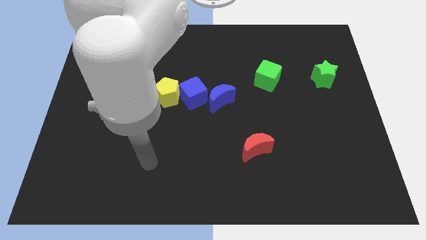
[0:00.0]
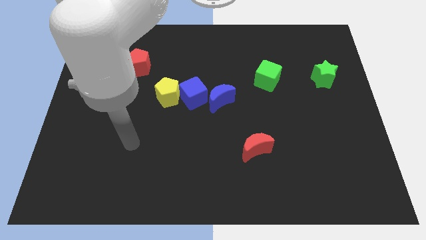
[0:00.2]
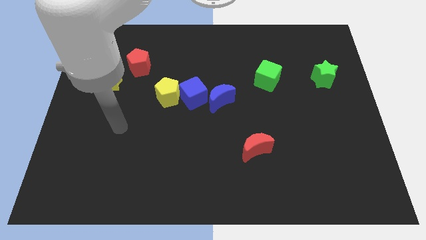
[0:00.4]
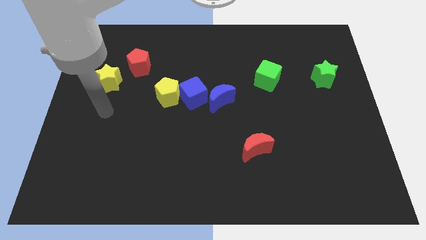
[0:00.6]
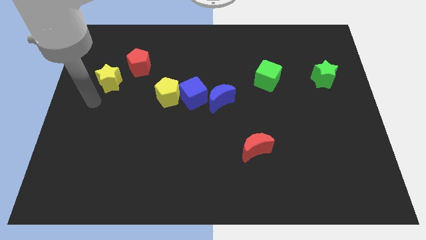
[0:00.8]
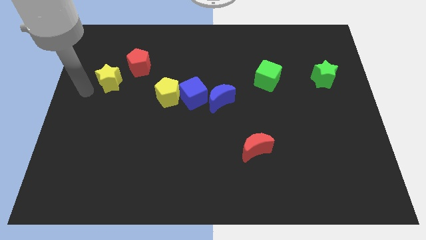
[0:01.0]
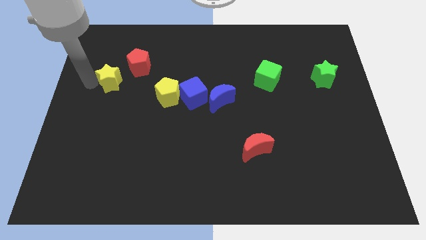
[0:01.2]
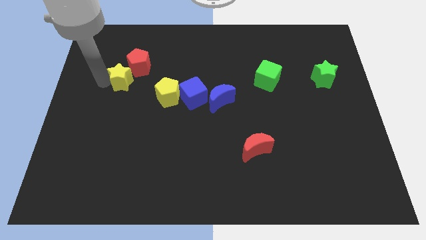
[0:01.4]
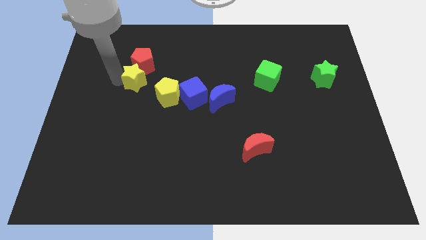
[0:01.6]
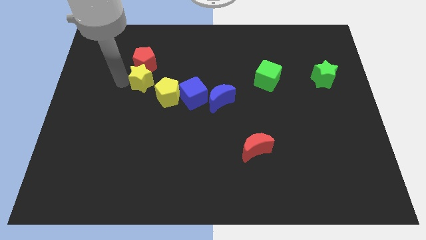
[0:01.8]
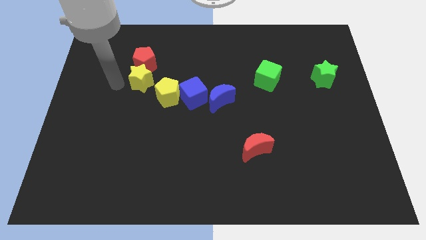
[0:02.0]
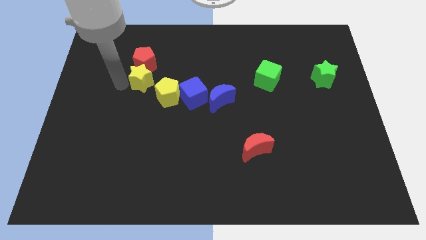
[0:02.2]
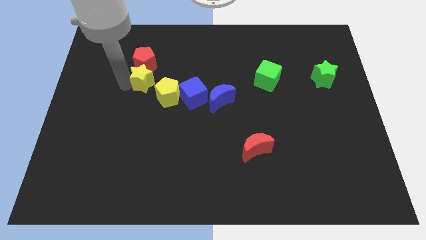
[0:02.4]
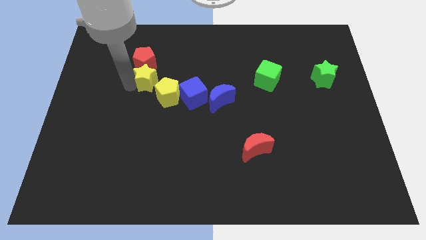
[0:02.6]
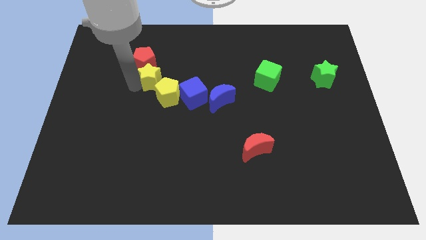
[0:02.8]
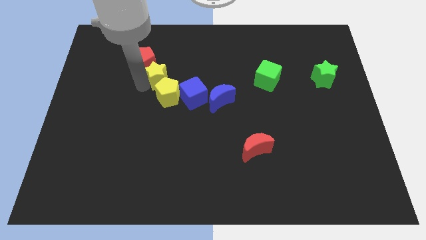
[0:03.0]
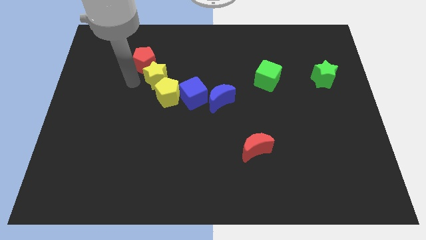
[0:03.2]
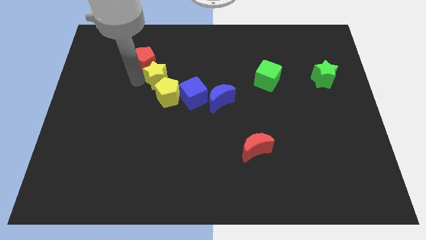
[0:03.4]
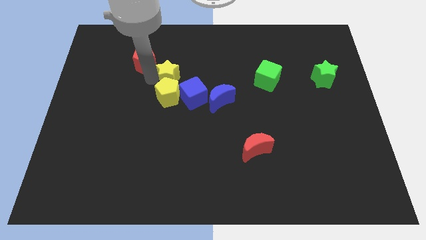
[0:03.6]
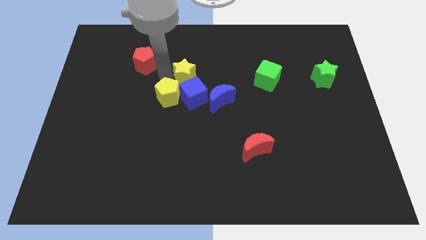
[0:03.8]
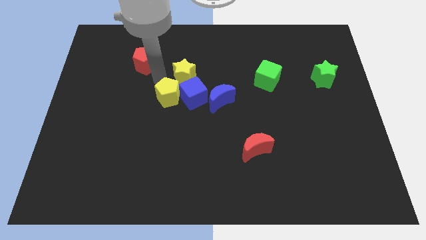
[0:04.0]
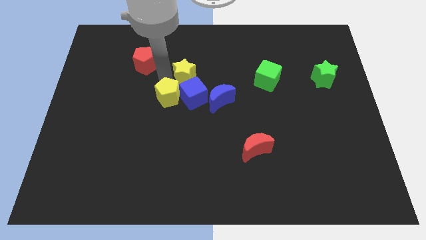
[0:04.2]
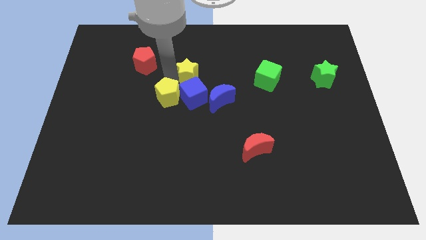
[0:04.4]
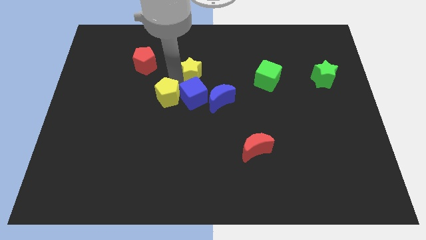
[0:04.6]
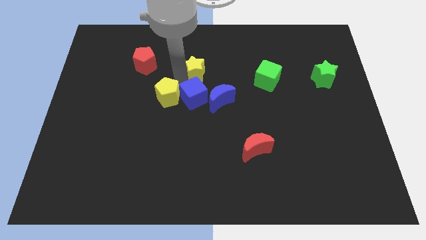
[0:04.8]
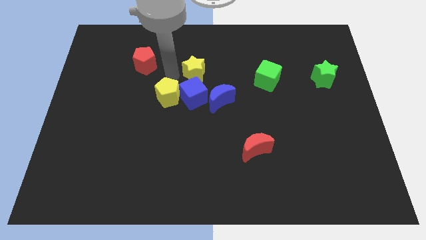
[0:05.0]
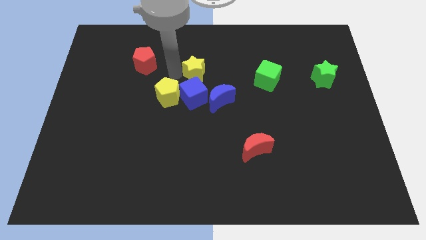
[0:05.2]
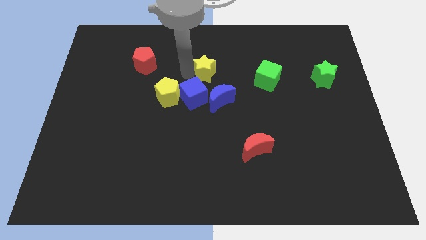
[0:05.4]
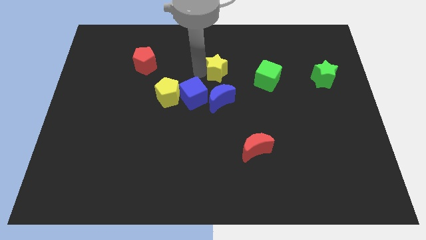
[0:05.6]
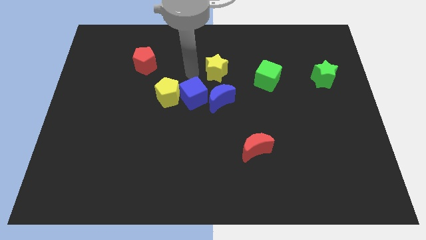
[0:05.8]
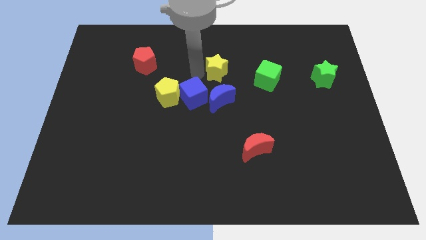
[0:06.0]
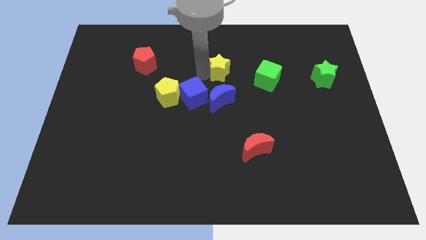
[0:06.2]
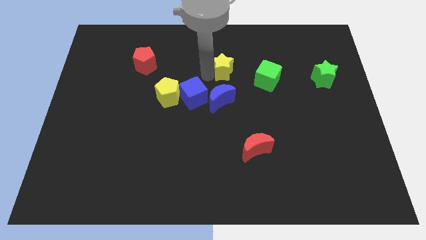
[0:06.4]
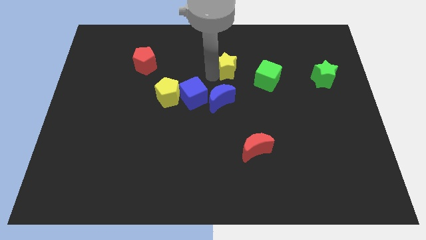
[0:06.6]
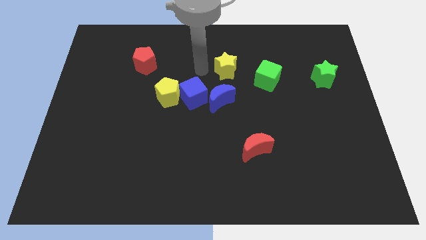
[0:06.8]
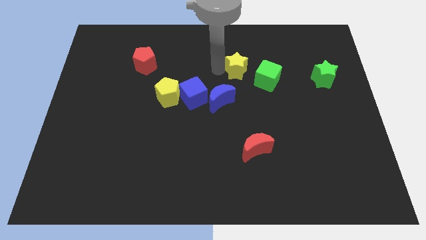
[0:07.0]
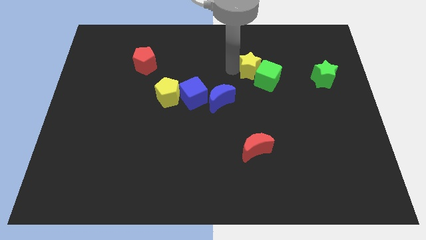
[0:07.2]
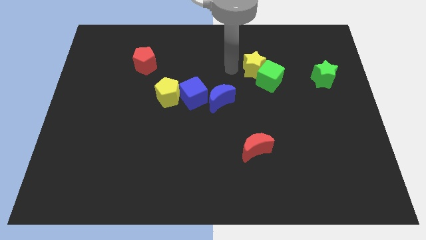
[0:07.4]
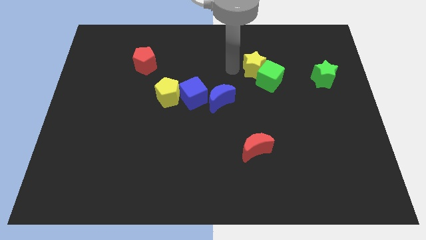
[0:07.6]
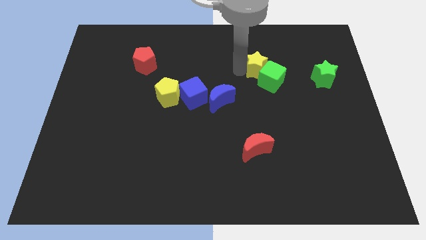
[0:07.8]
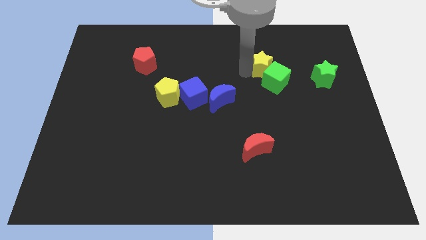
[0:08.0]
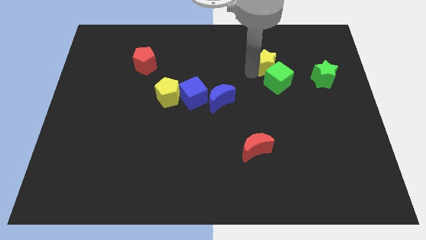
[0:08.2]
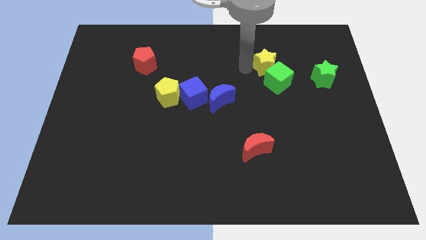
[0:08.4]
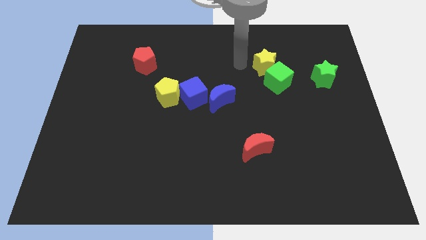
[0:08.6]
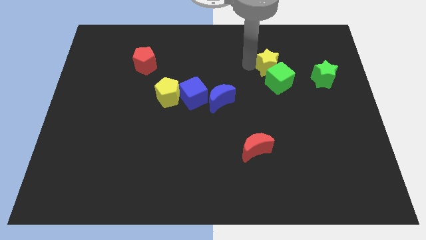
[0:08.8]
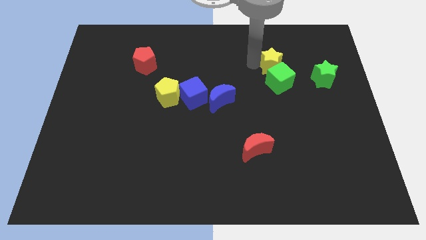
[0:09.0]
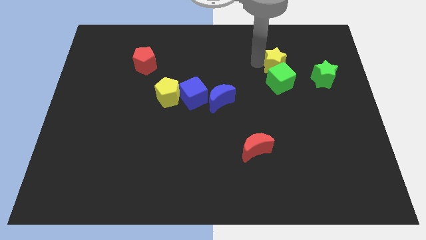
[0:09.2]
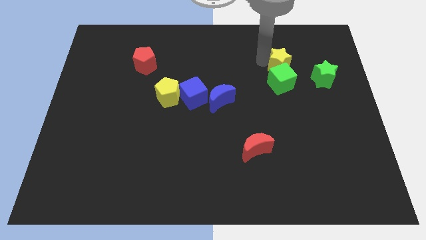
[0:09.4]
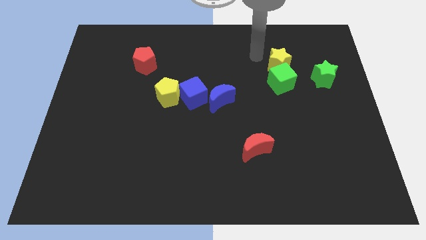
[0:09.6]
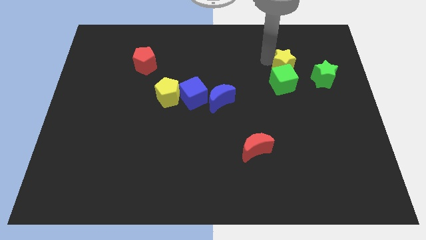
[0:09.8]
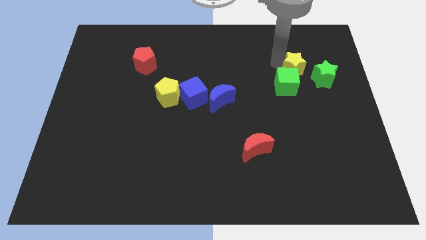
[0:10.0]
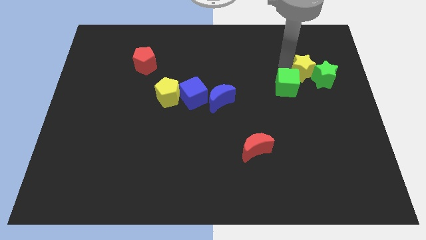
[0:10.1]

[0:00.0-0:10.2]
push the yellow star next to the green star

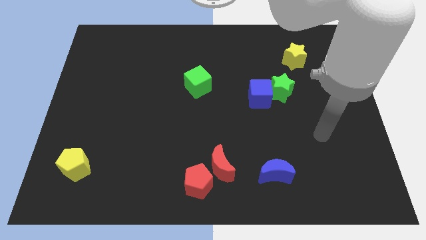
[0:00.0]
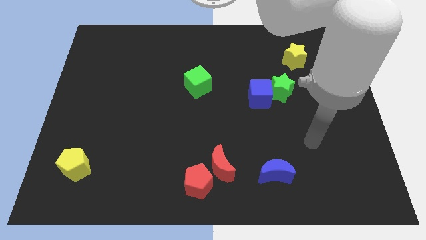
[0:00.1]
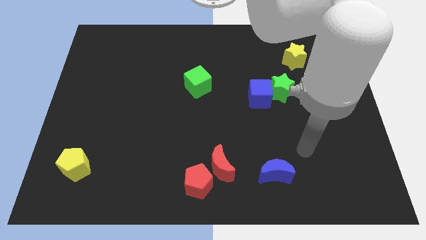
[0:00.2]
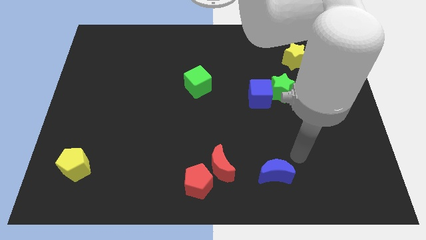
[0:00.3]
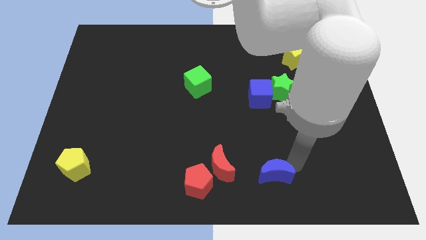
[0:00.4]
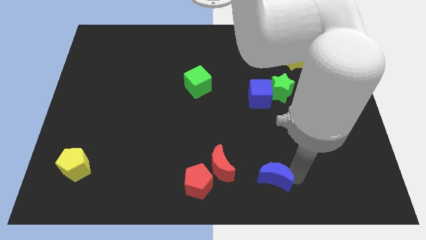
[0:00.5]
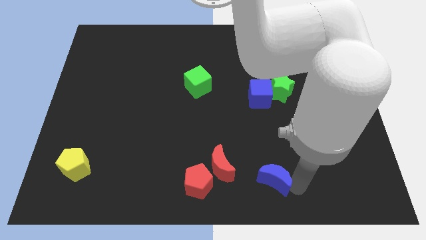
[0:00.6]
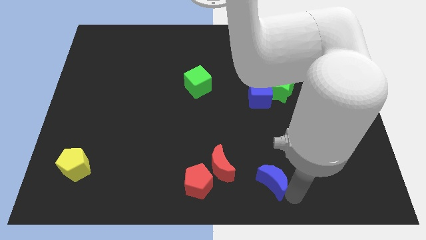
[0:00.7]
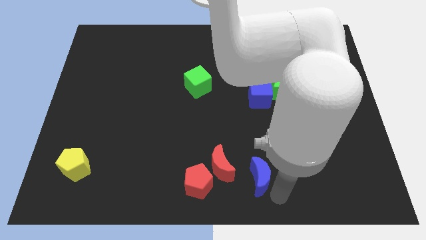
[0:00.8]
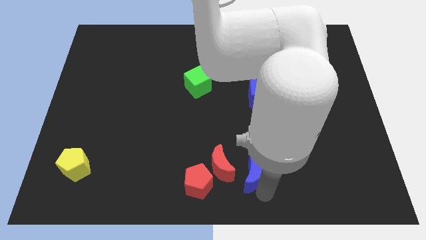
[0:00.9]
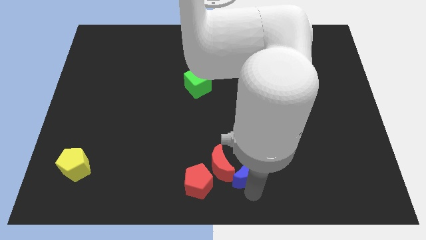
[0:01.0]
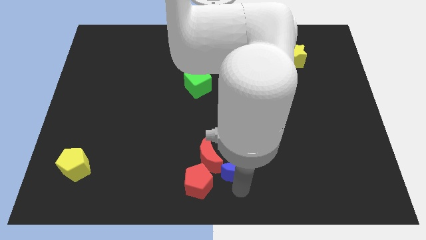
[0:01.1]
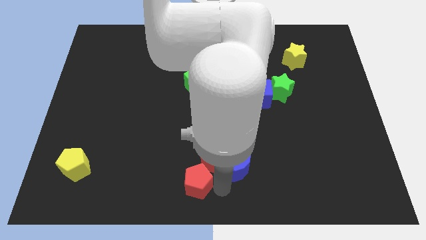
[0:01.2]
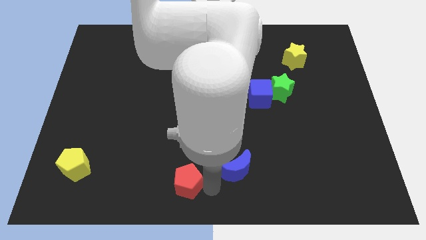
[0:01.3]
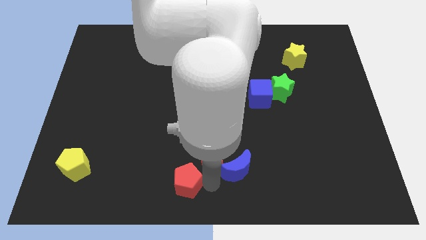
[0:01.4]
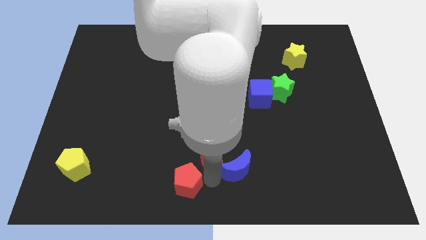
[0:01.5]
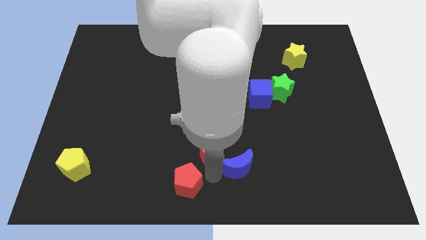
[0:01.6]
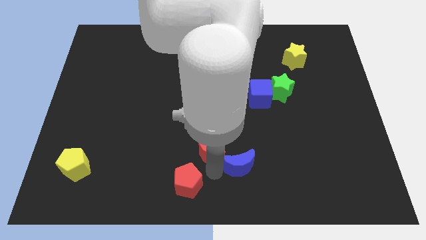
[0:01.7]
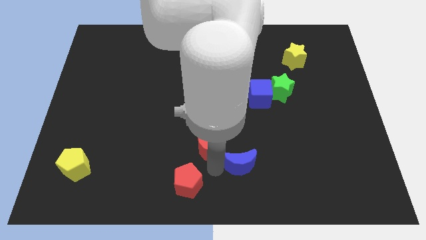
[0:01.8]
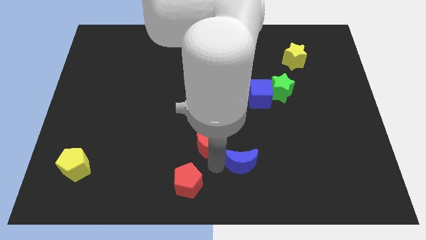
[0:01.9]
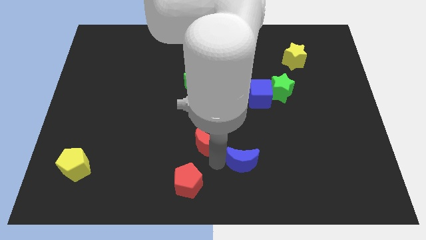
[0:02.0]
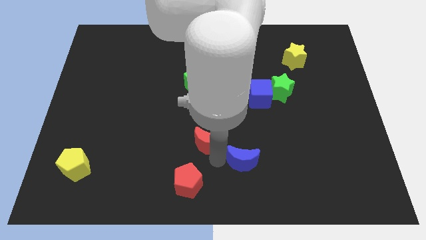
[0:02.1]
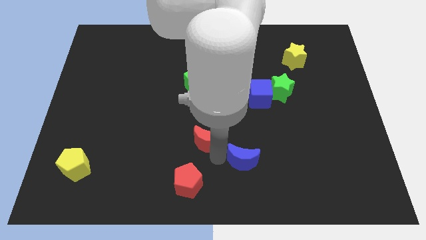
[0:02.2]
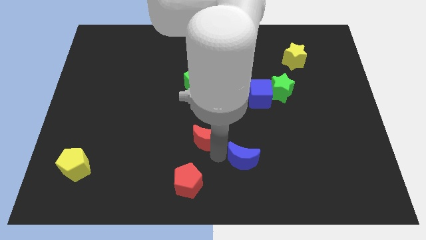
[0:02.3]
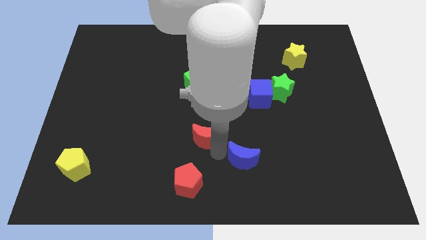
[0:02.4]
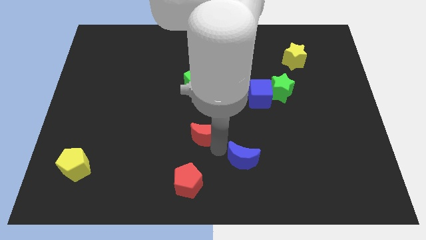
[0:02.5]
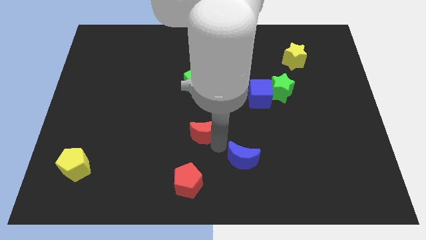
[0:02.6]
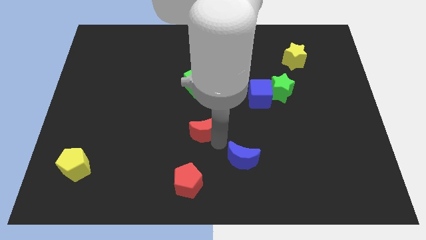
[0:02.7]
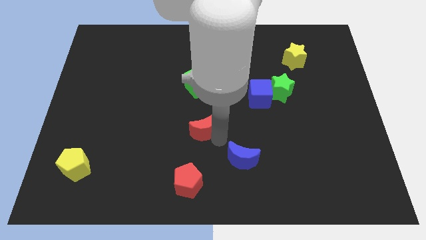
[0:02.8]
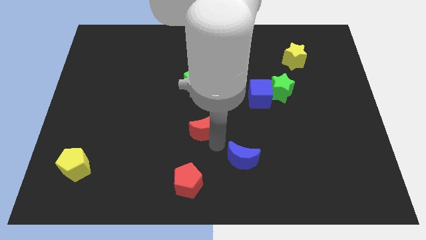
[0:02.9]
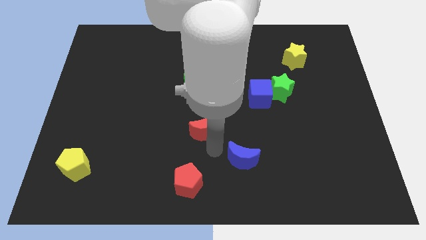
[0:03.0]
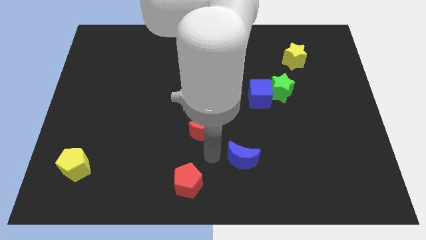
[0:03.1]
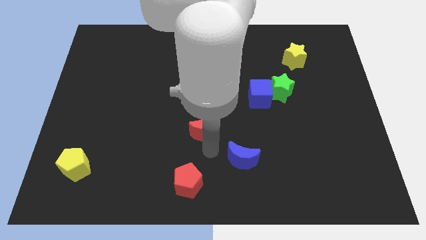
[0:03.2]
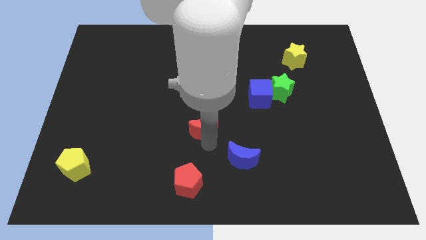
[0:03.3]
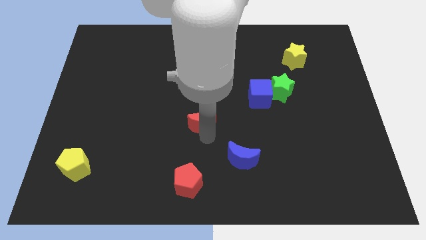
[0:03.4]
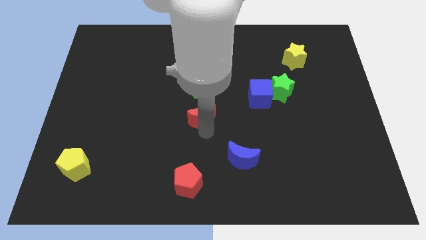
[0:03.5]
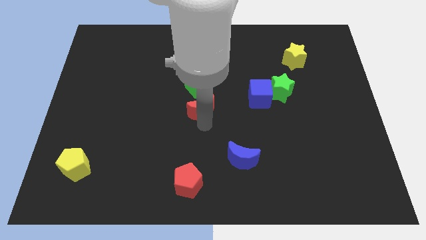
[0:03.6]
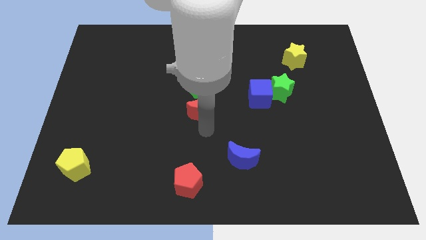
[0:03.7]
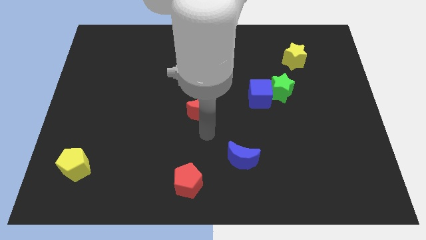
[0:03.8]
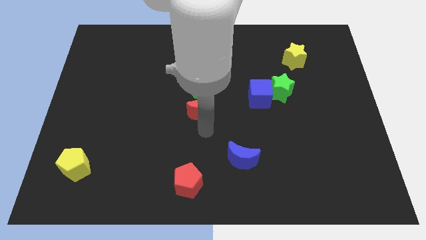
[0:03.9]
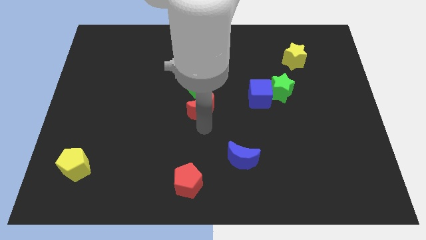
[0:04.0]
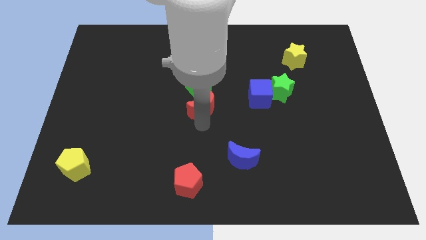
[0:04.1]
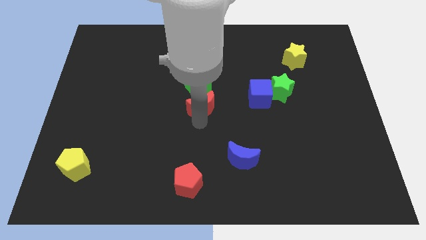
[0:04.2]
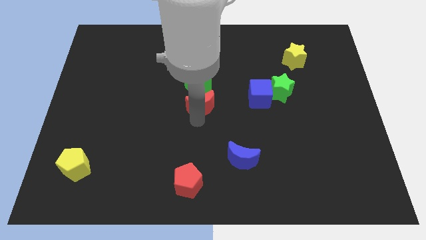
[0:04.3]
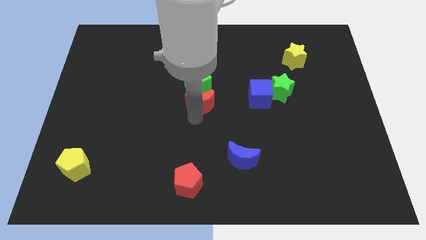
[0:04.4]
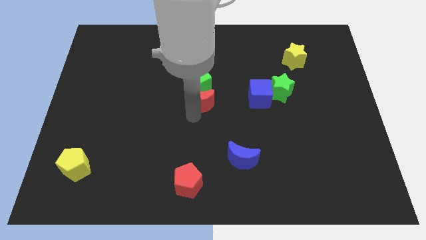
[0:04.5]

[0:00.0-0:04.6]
put the red moon to the green cube
